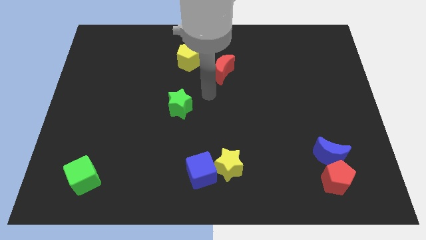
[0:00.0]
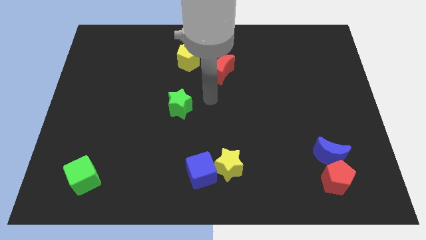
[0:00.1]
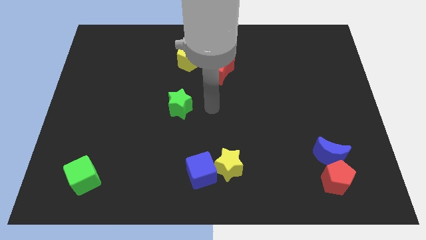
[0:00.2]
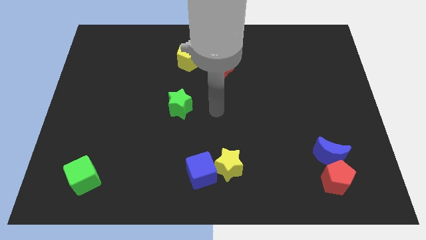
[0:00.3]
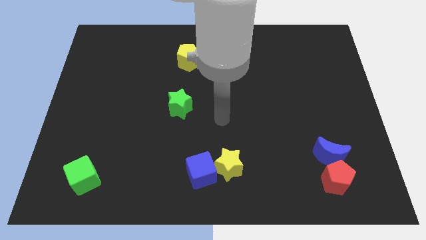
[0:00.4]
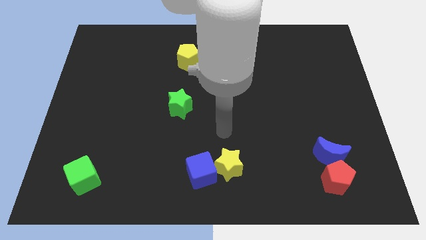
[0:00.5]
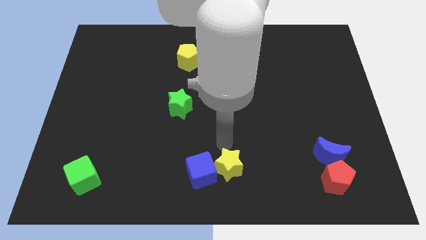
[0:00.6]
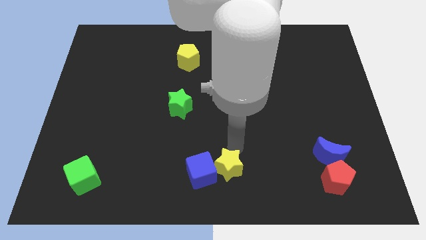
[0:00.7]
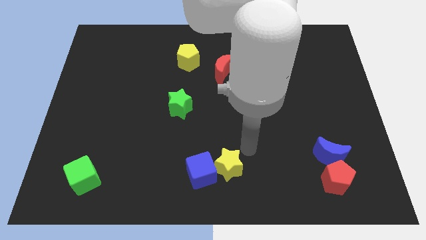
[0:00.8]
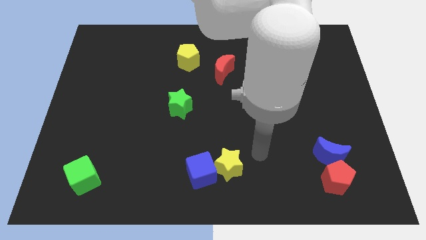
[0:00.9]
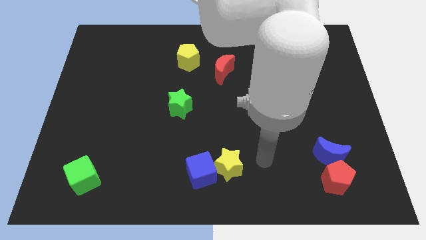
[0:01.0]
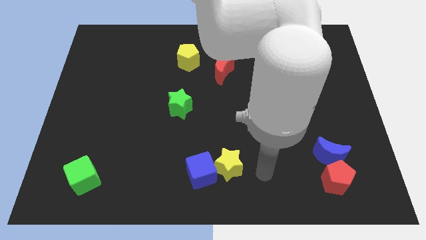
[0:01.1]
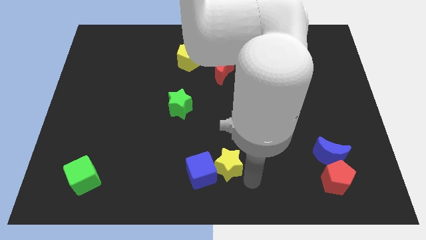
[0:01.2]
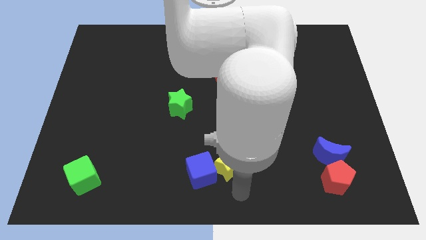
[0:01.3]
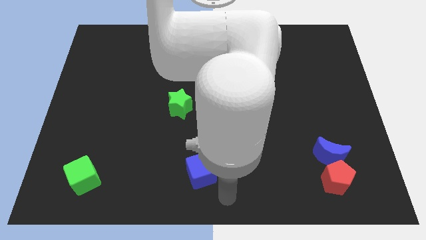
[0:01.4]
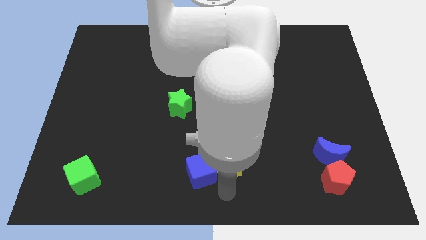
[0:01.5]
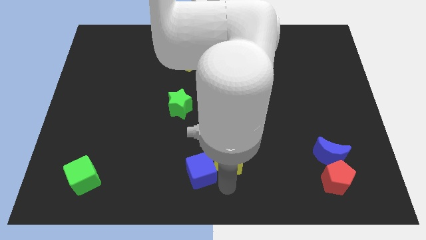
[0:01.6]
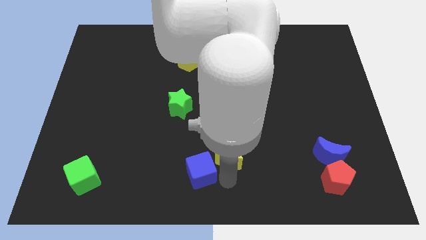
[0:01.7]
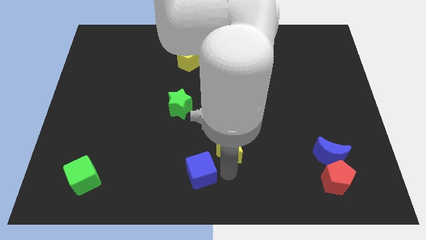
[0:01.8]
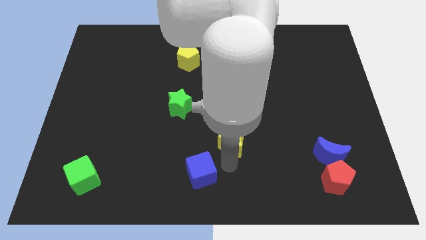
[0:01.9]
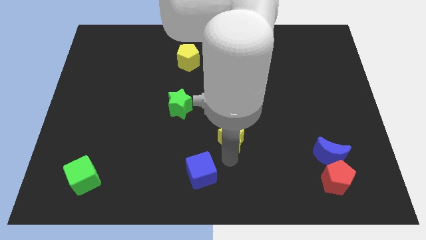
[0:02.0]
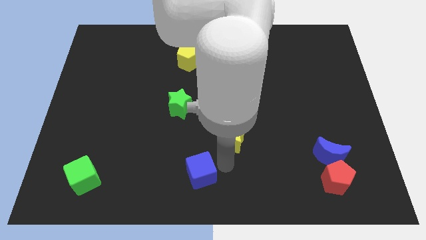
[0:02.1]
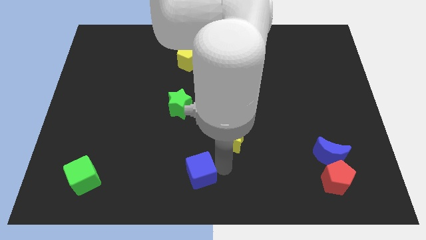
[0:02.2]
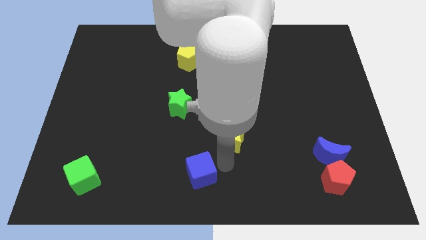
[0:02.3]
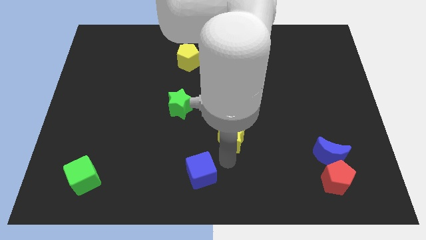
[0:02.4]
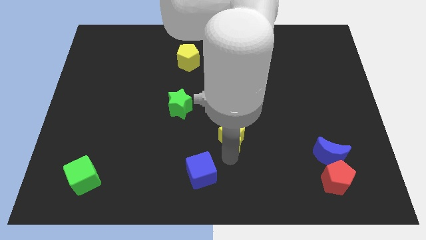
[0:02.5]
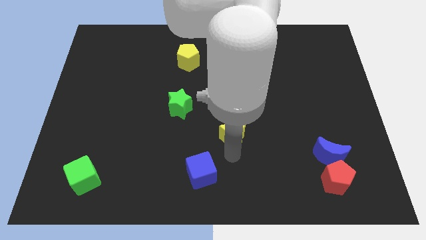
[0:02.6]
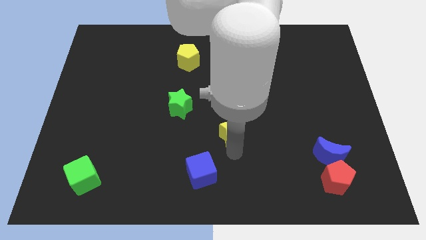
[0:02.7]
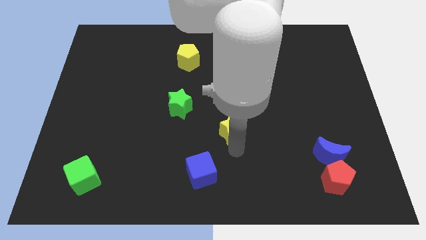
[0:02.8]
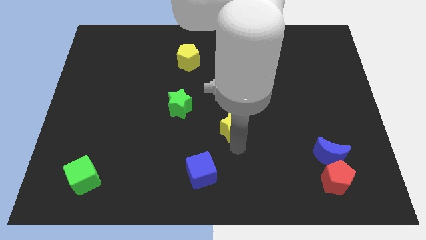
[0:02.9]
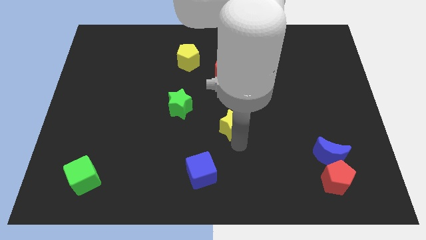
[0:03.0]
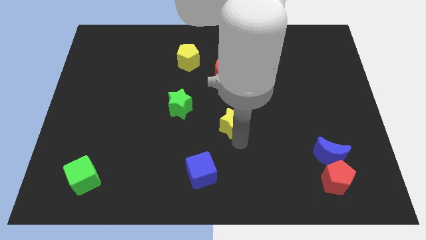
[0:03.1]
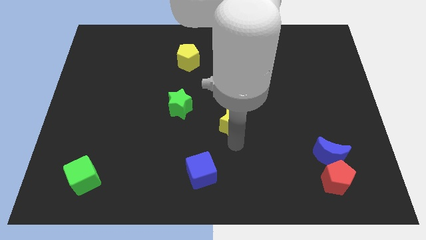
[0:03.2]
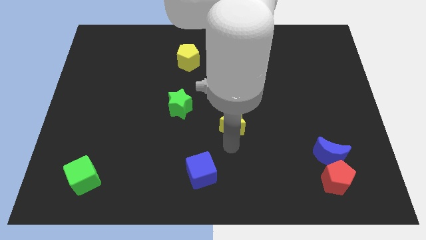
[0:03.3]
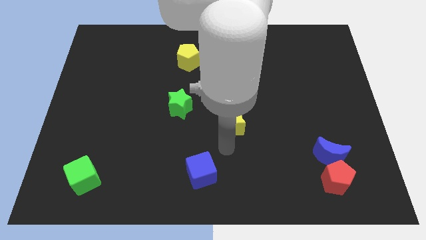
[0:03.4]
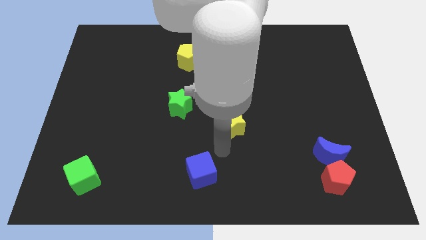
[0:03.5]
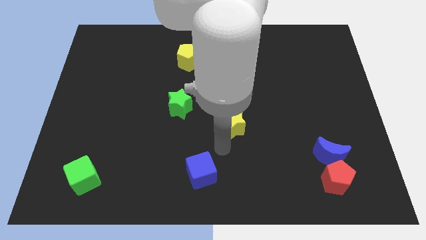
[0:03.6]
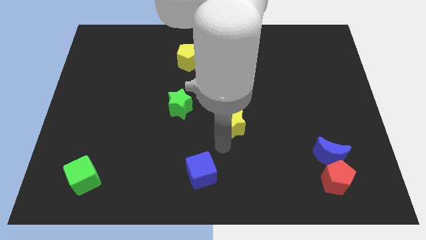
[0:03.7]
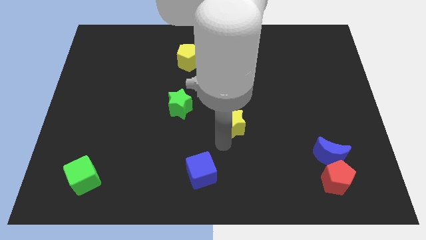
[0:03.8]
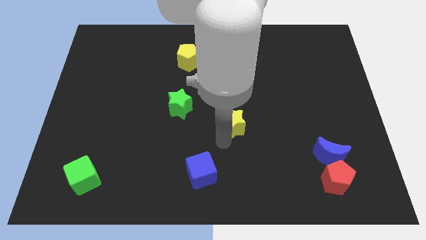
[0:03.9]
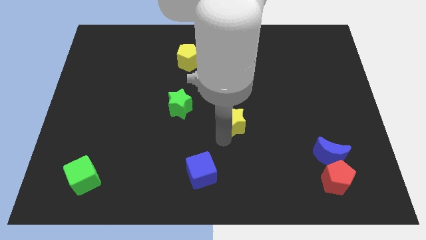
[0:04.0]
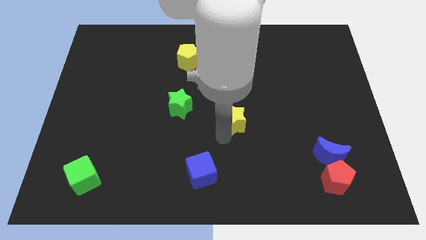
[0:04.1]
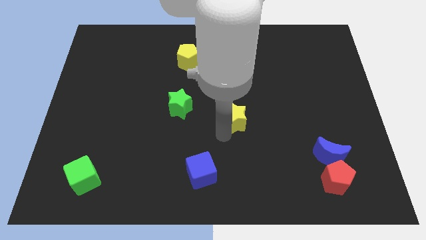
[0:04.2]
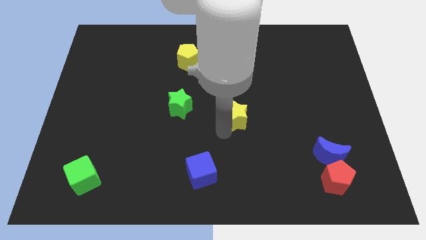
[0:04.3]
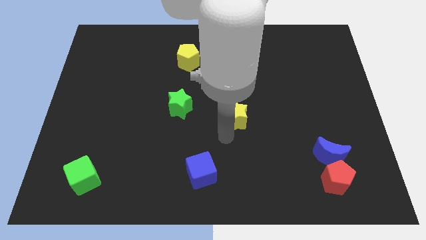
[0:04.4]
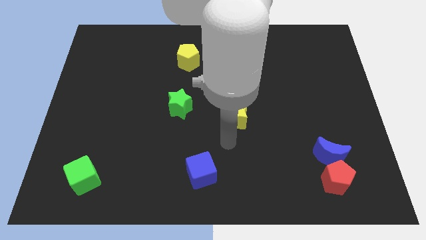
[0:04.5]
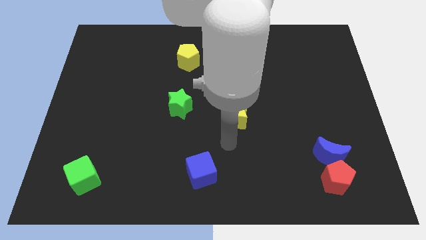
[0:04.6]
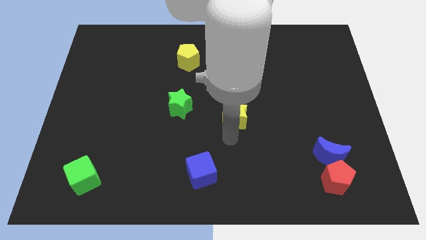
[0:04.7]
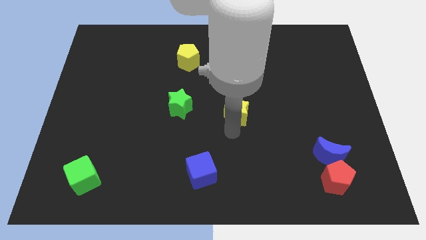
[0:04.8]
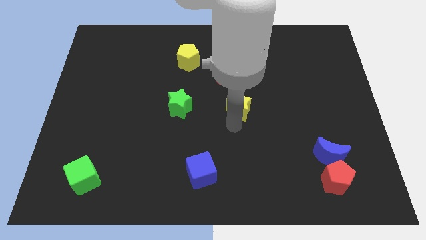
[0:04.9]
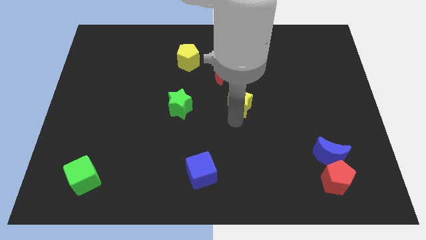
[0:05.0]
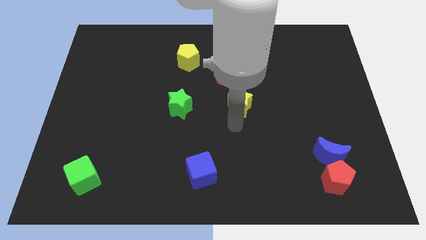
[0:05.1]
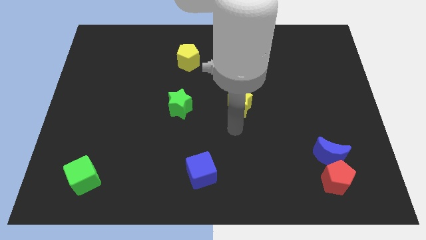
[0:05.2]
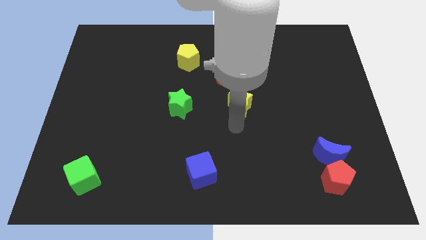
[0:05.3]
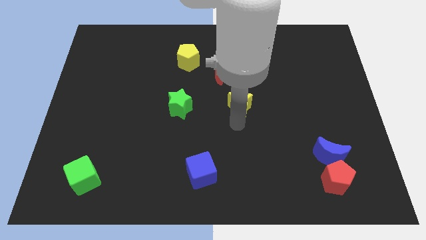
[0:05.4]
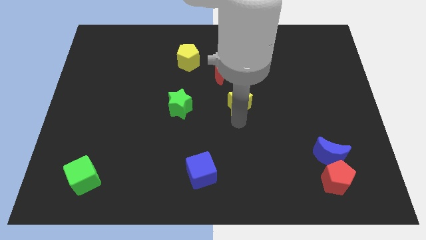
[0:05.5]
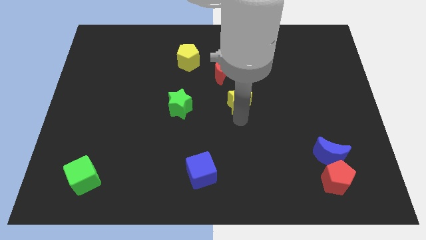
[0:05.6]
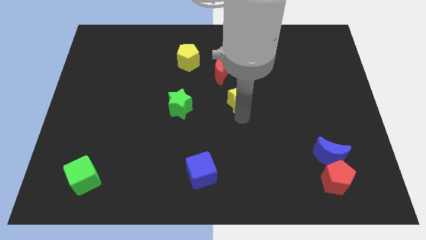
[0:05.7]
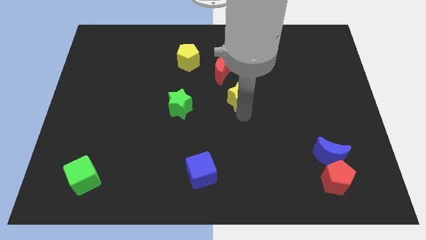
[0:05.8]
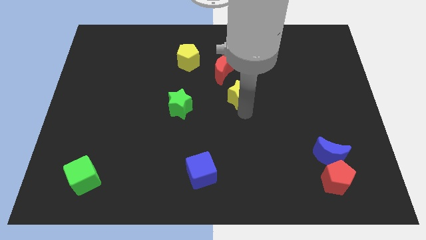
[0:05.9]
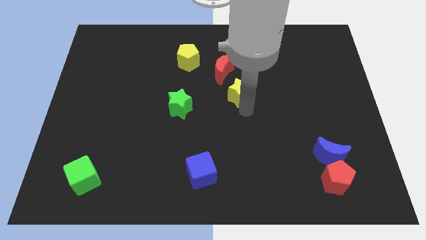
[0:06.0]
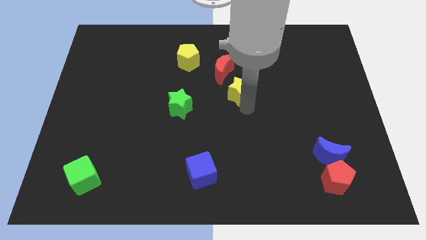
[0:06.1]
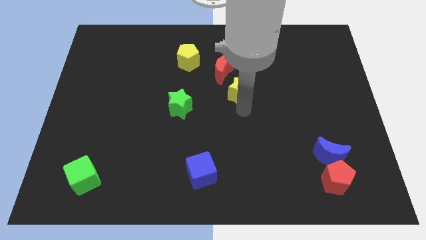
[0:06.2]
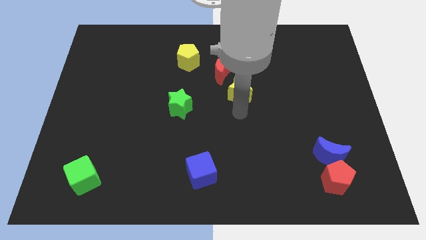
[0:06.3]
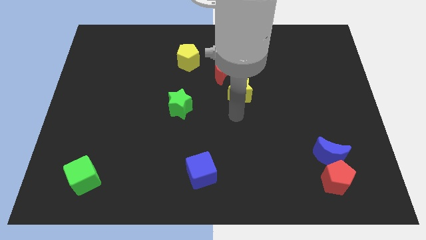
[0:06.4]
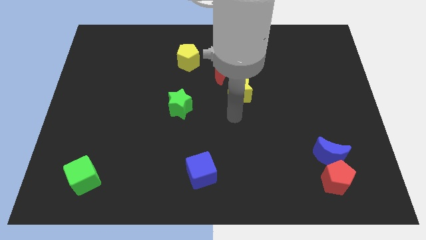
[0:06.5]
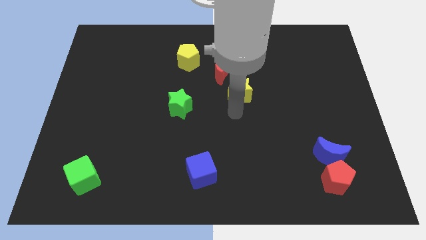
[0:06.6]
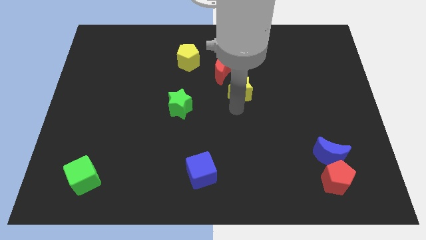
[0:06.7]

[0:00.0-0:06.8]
move the yellow star upwards

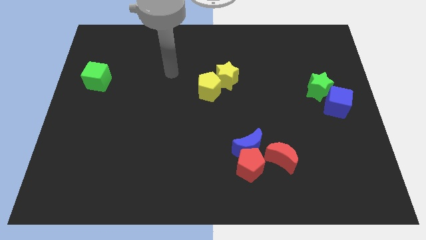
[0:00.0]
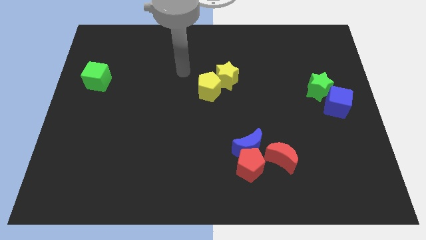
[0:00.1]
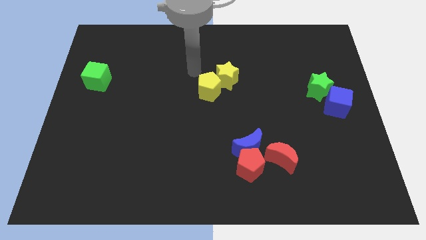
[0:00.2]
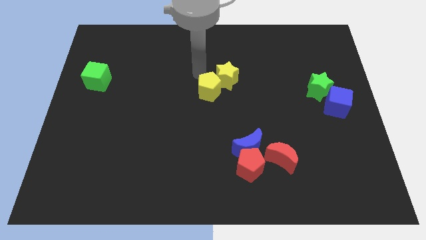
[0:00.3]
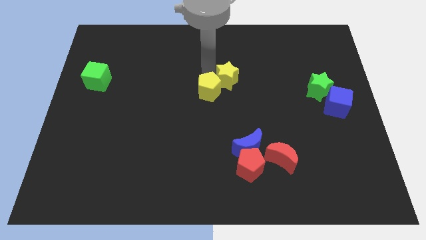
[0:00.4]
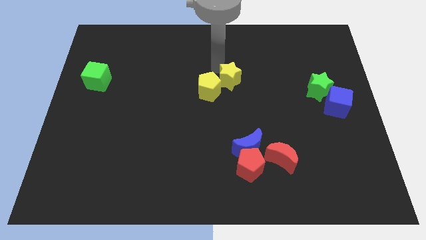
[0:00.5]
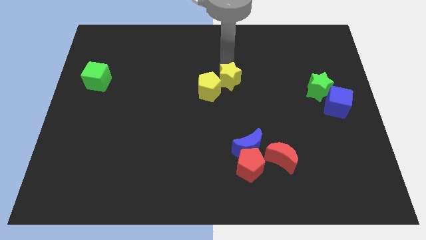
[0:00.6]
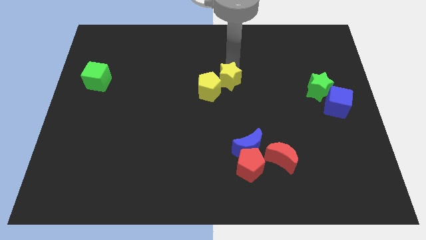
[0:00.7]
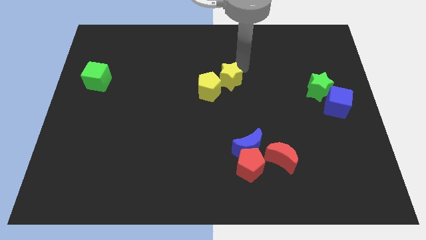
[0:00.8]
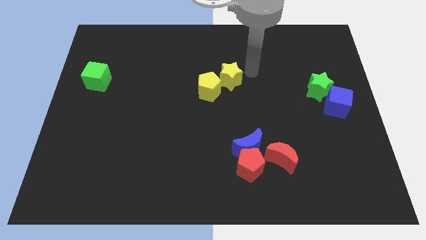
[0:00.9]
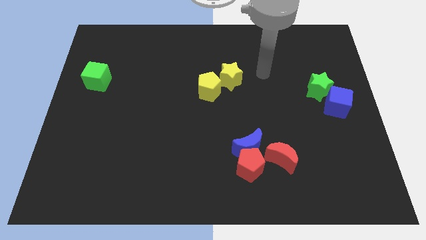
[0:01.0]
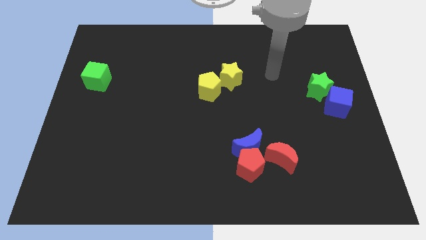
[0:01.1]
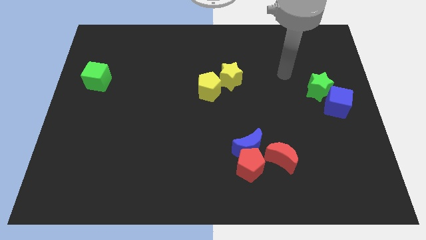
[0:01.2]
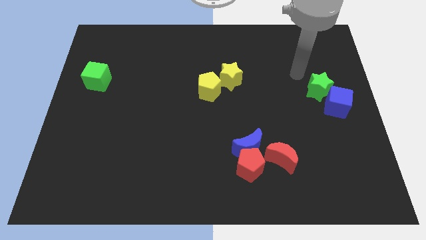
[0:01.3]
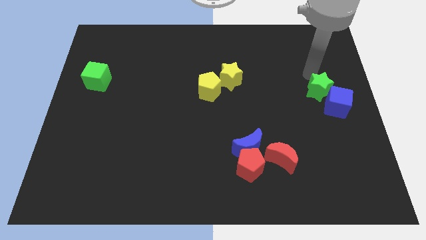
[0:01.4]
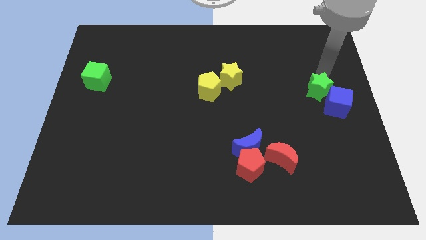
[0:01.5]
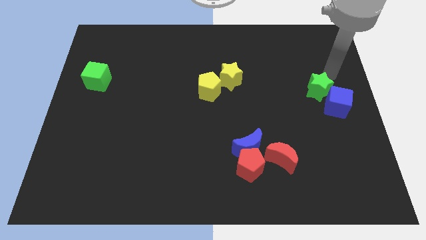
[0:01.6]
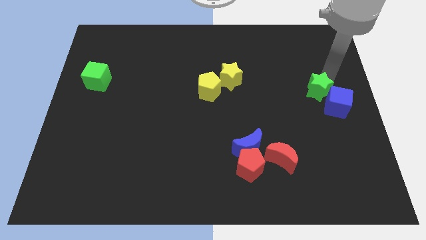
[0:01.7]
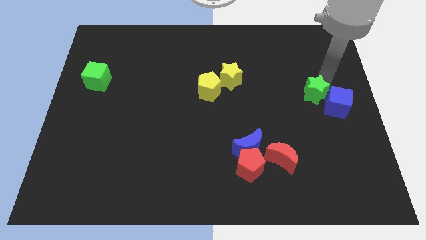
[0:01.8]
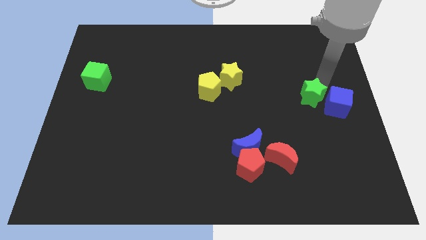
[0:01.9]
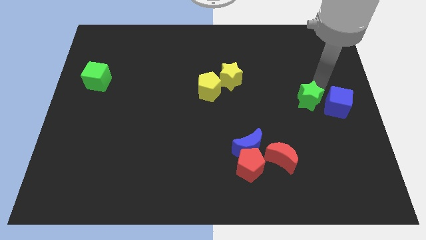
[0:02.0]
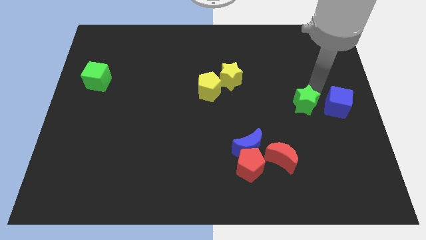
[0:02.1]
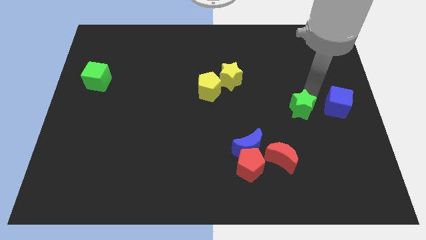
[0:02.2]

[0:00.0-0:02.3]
push the green star a bit downwards and to the left diagonally
